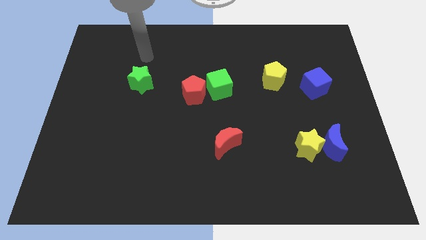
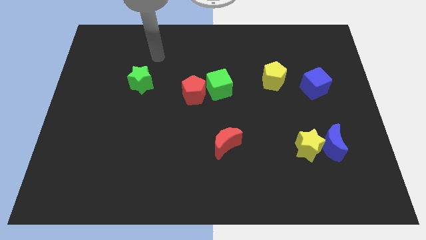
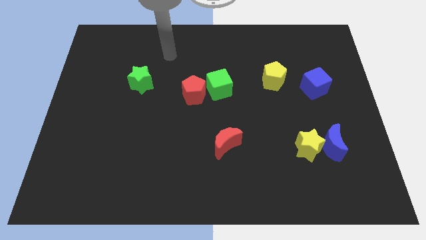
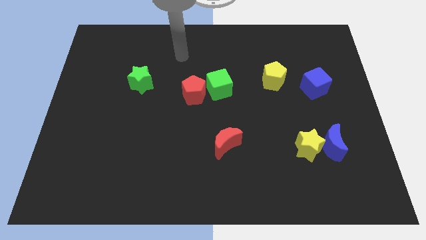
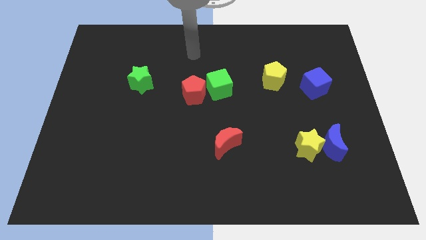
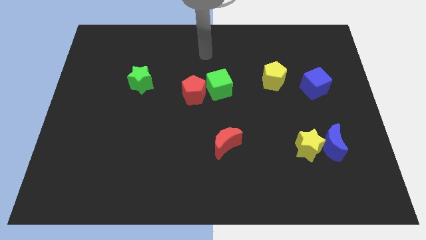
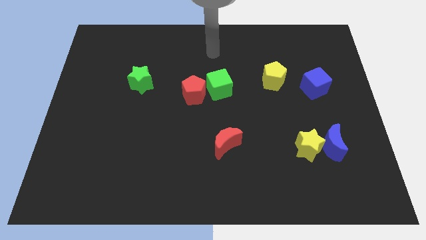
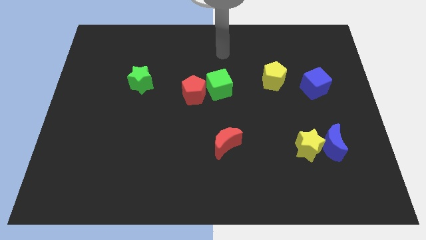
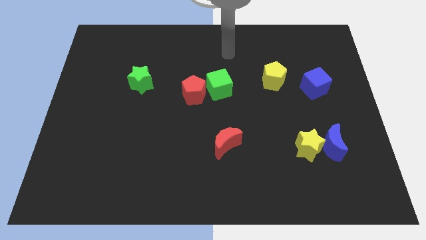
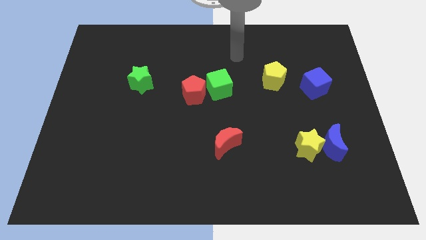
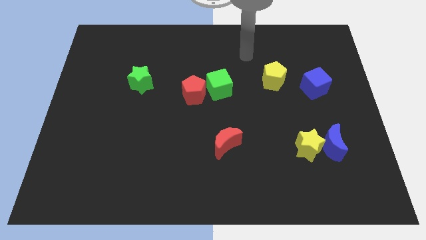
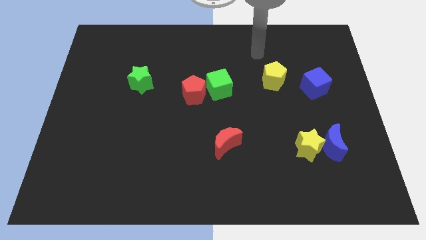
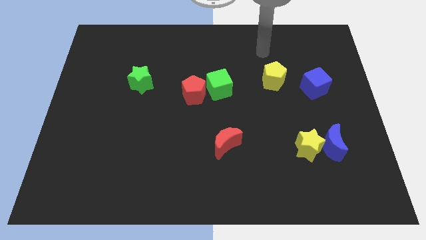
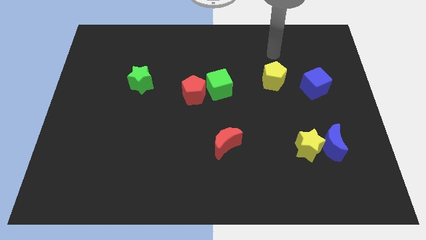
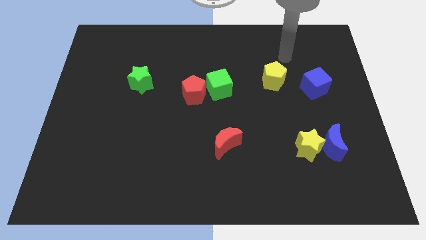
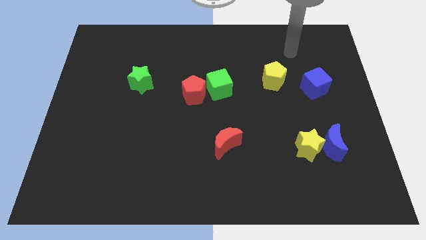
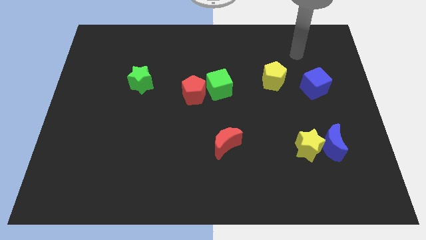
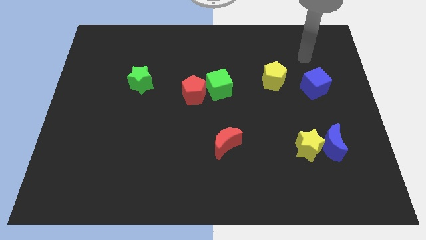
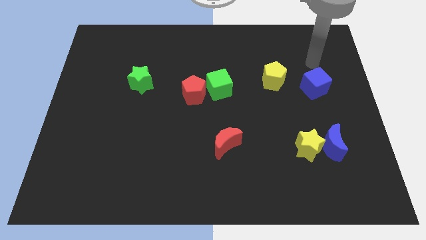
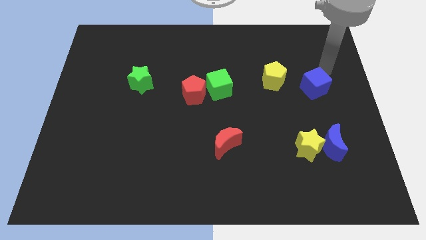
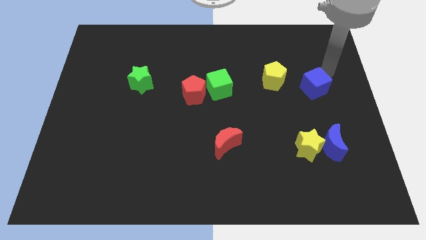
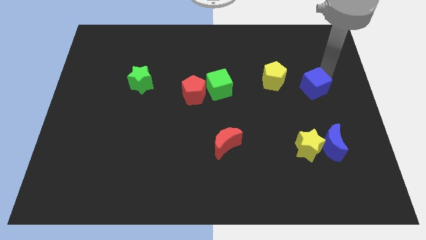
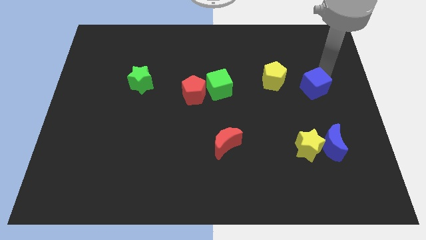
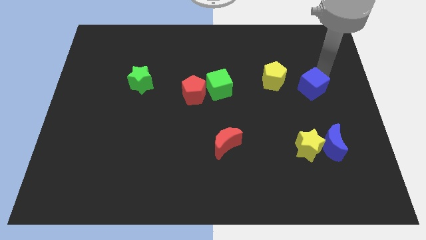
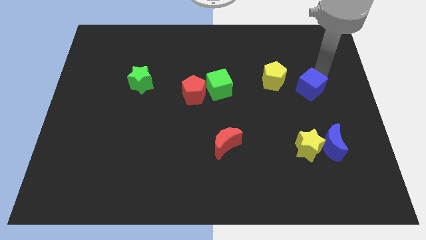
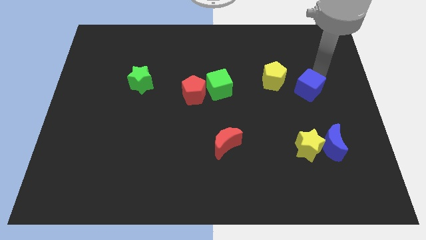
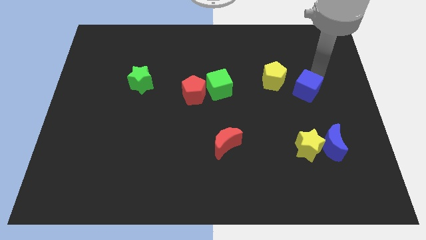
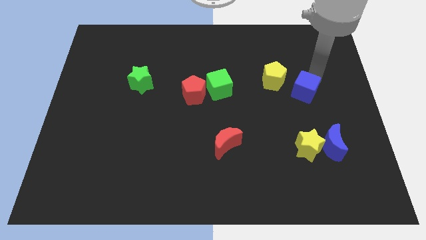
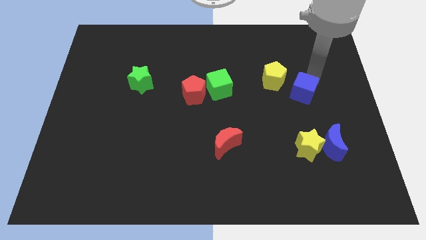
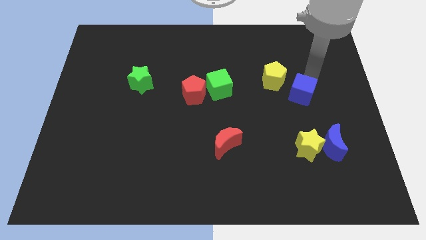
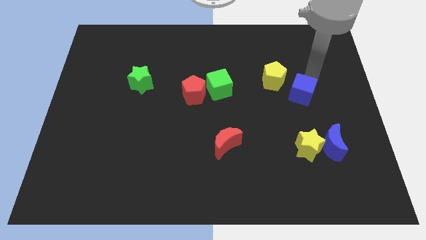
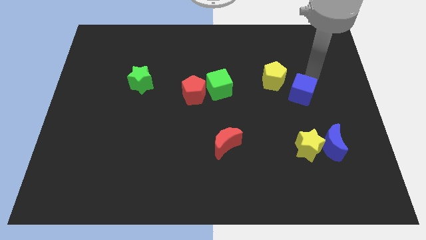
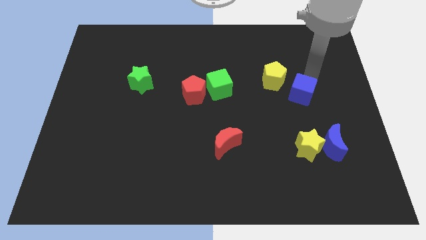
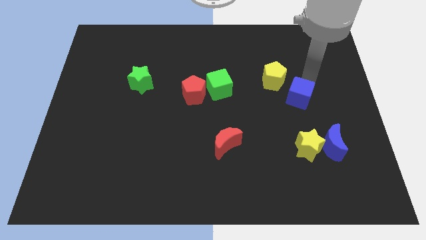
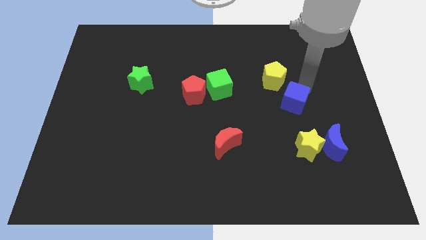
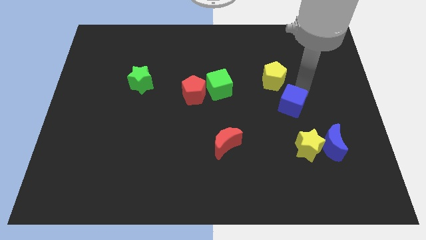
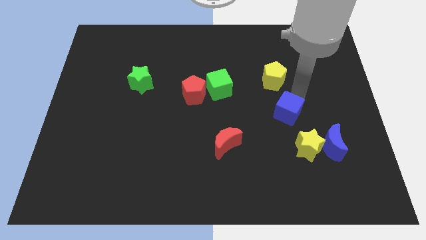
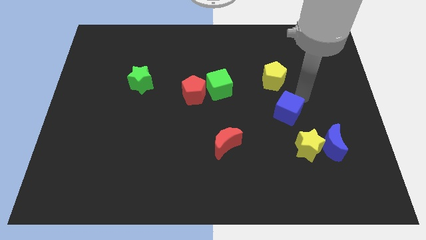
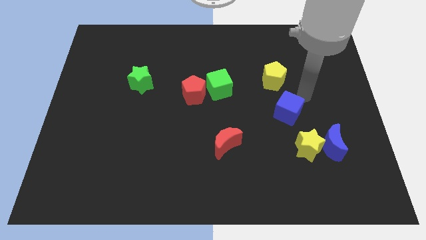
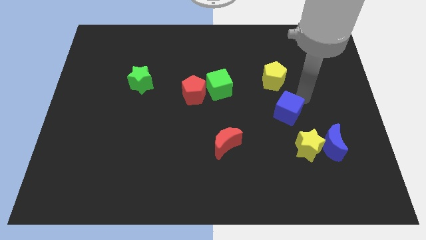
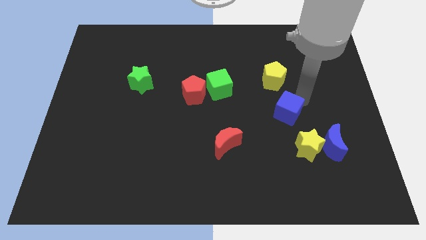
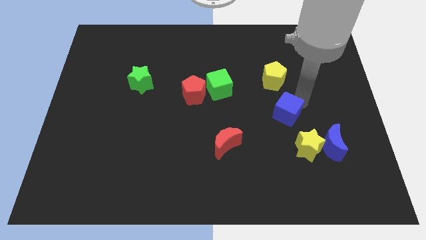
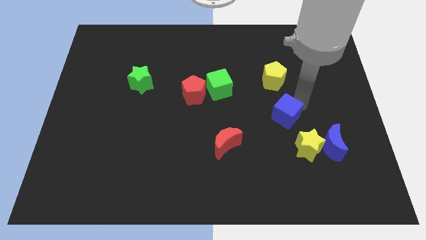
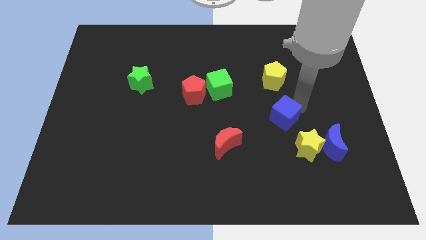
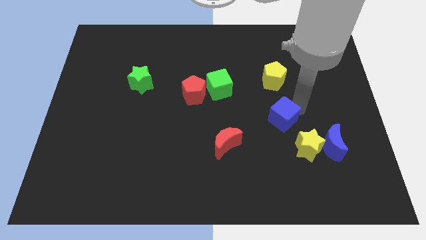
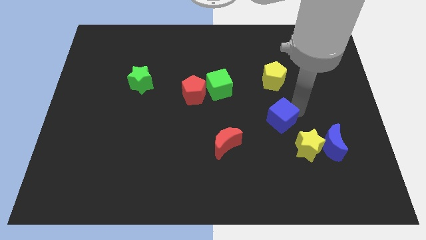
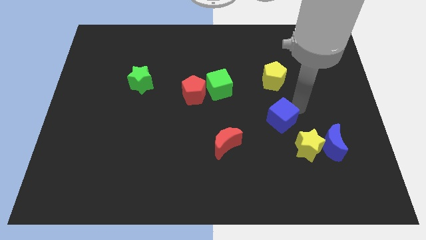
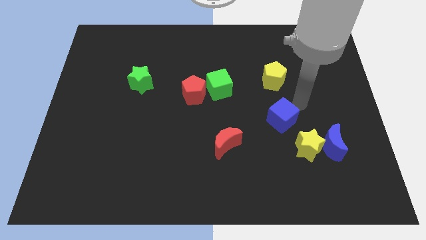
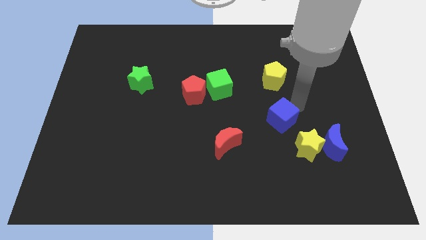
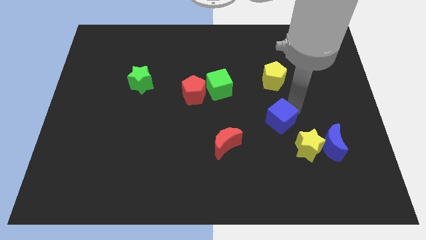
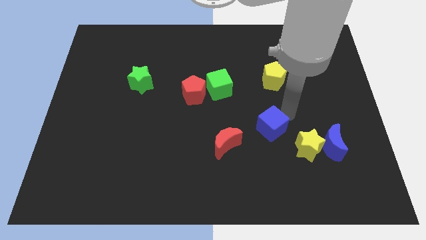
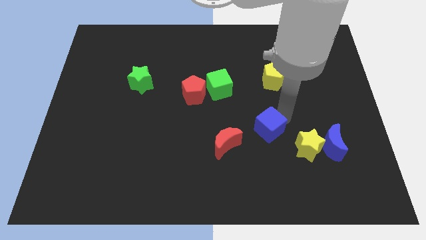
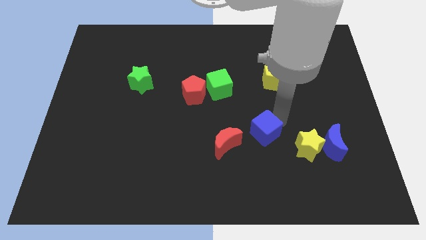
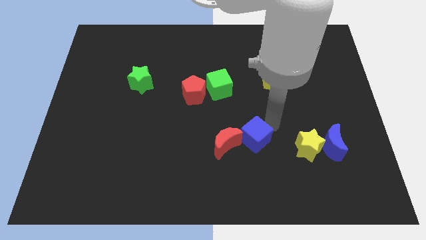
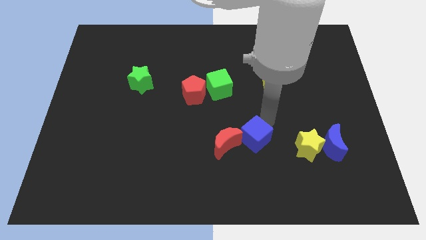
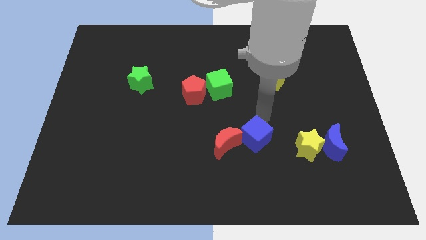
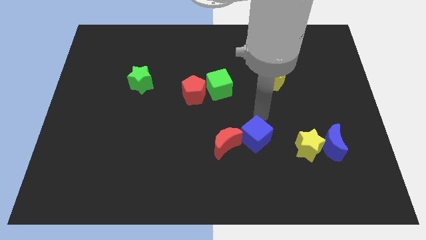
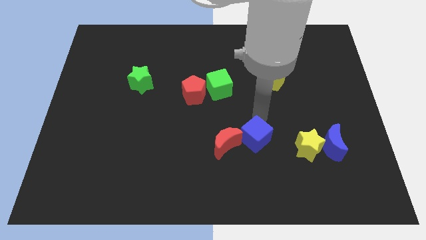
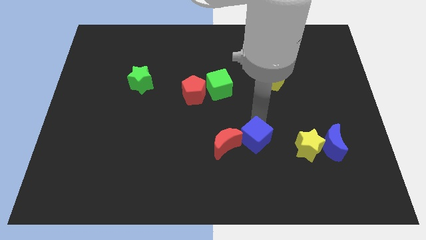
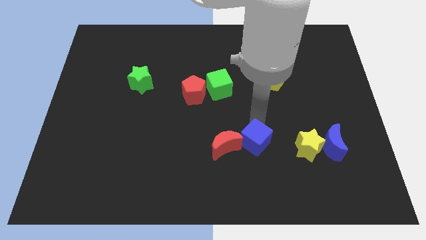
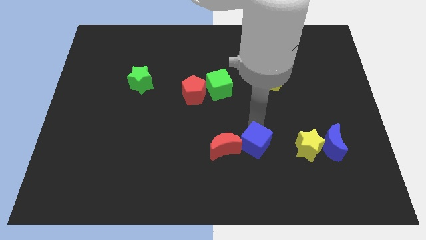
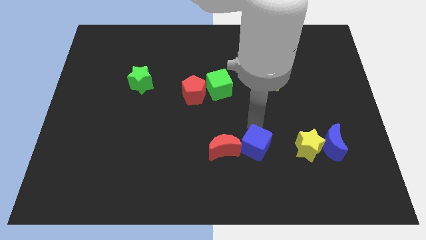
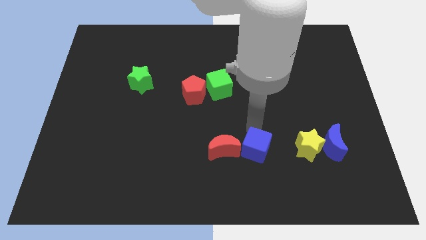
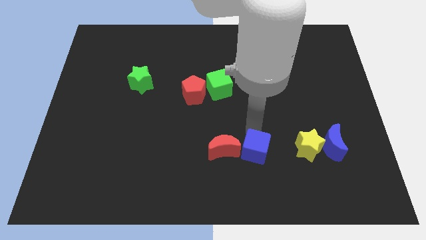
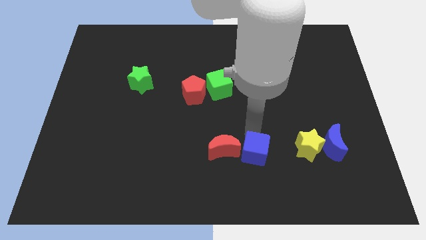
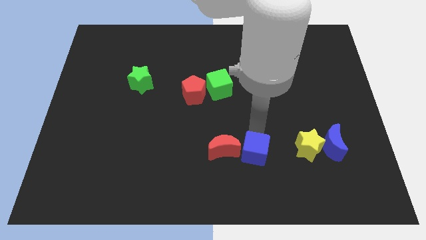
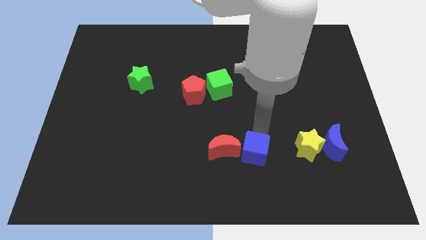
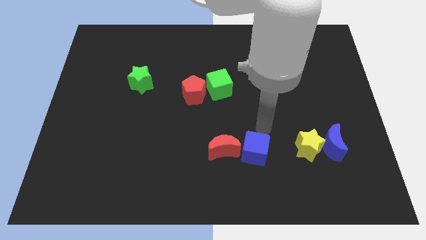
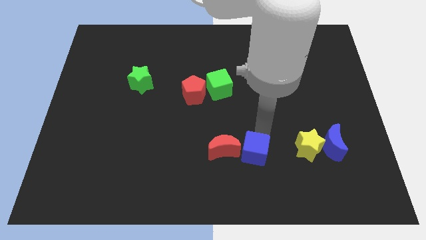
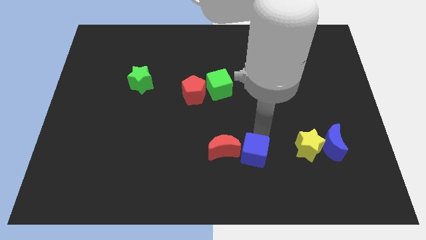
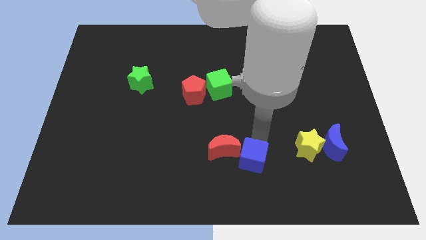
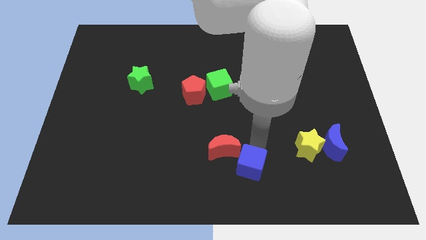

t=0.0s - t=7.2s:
put the blue cube to the bottom side
